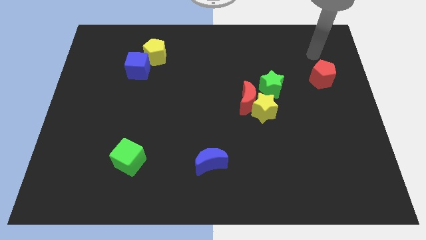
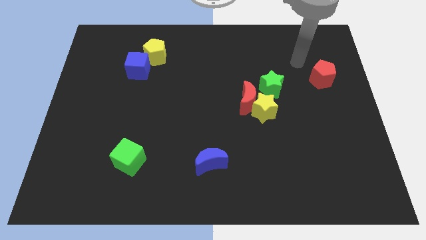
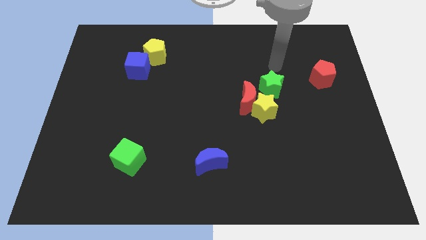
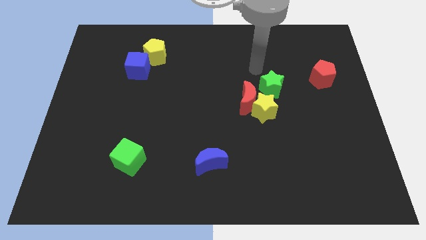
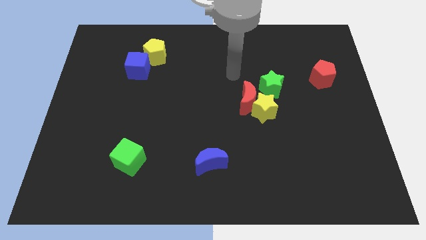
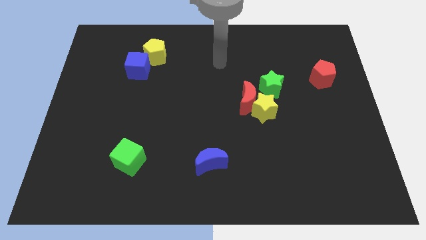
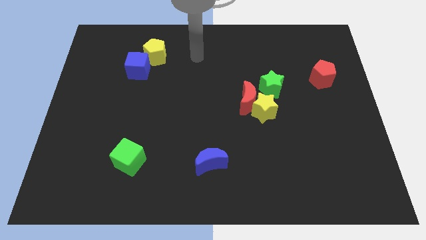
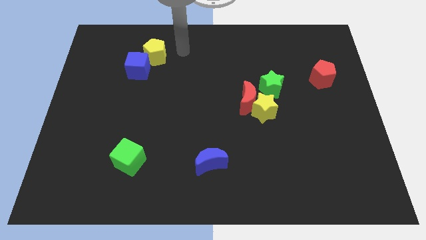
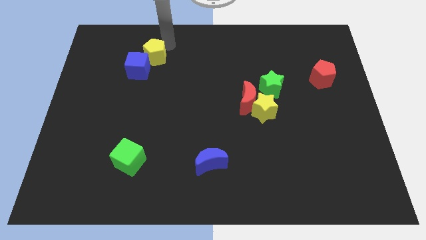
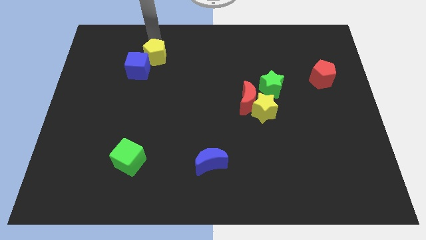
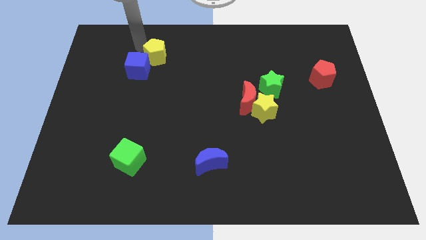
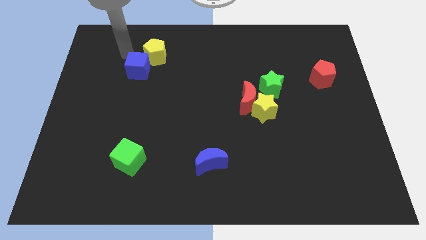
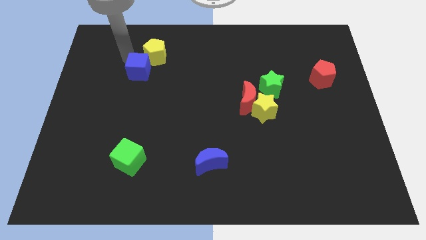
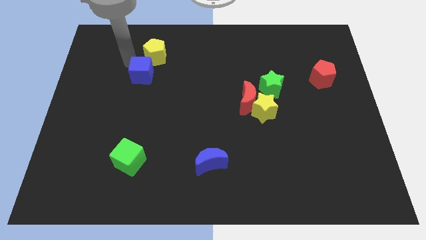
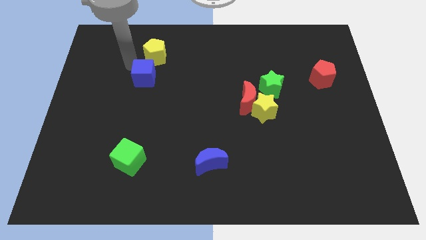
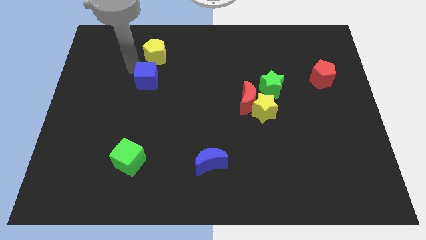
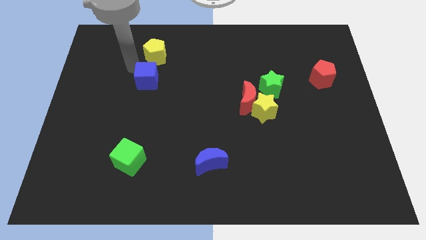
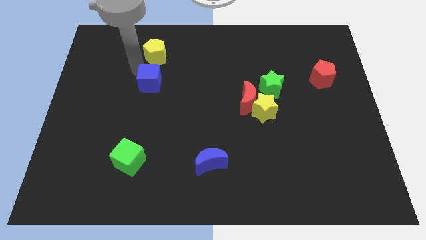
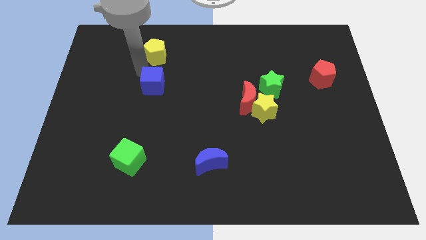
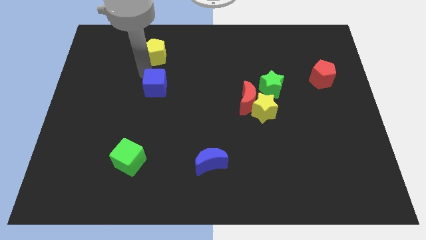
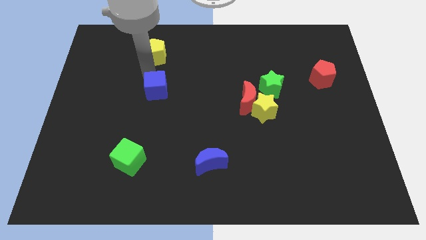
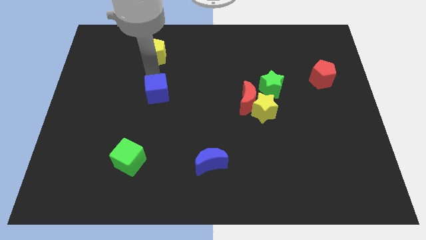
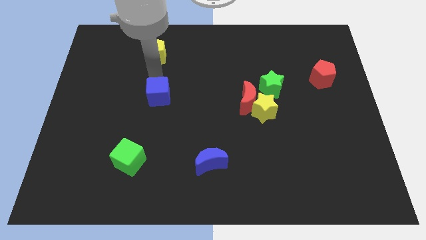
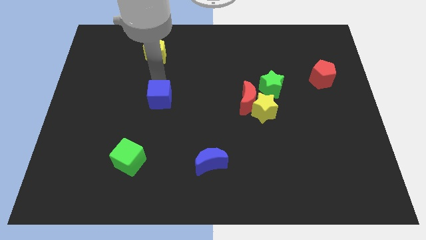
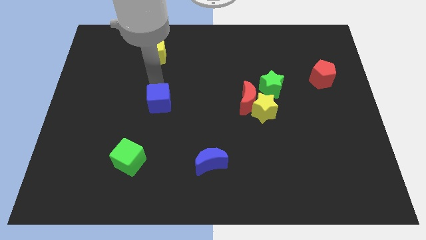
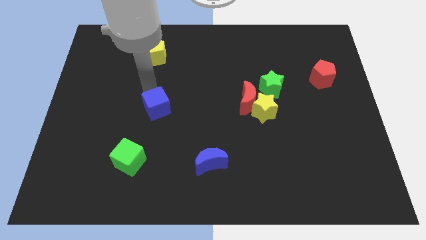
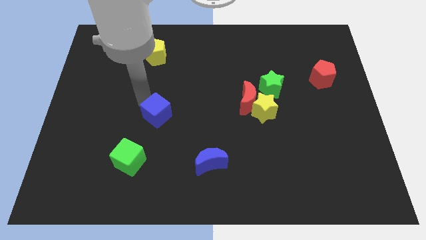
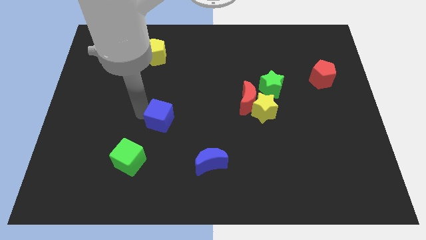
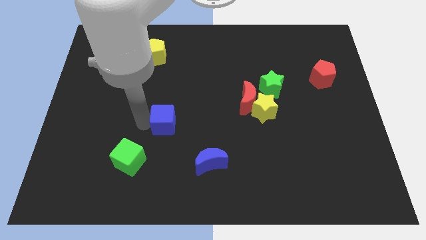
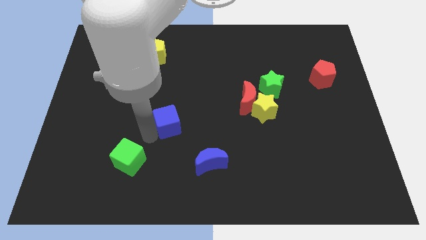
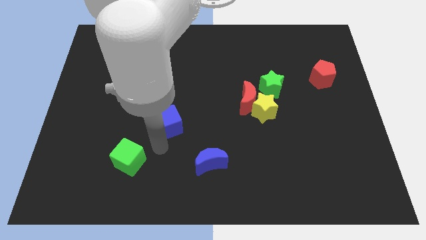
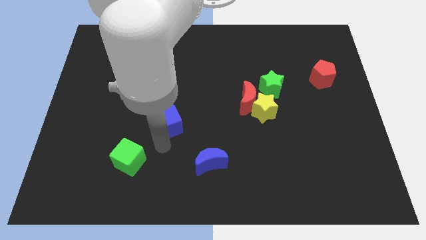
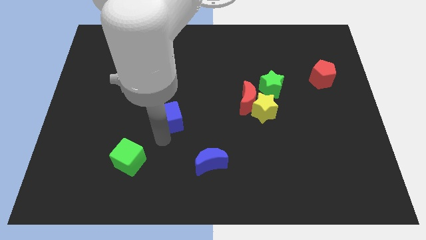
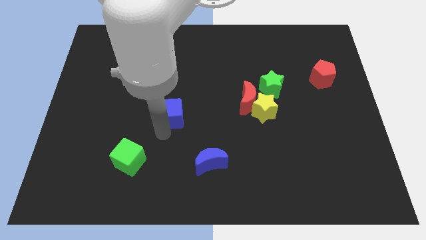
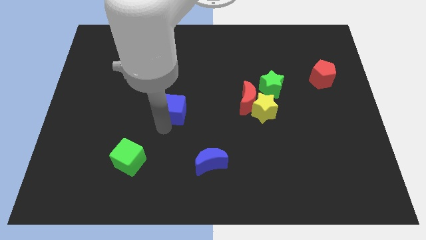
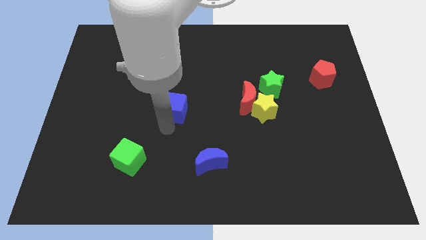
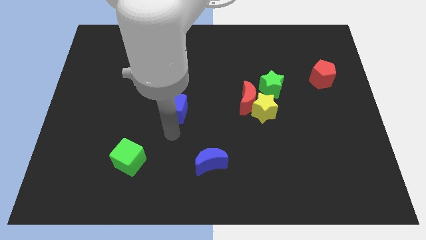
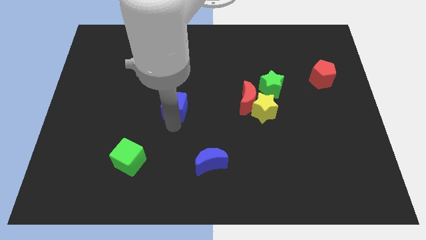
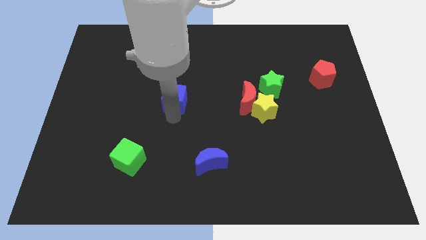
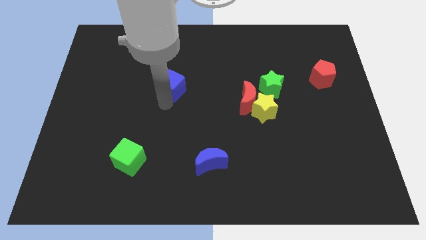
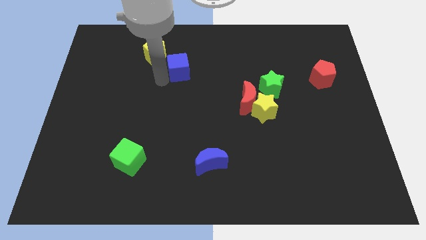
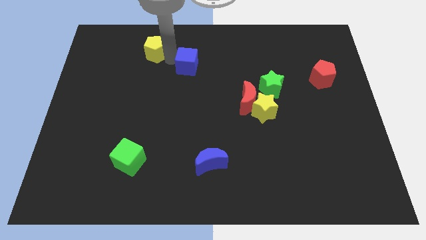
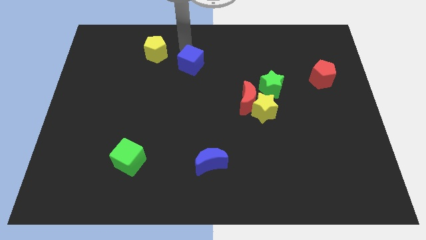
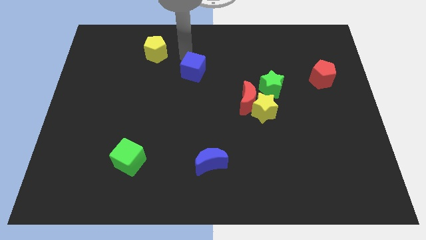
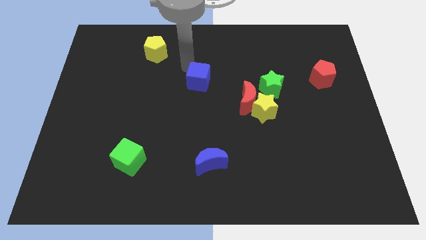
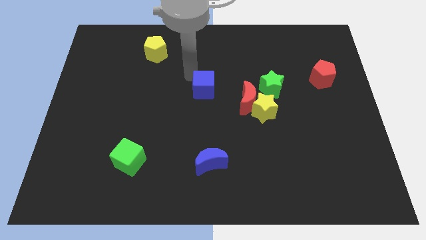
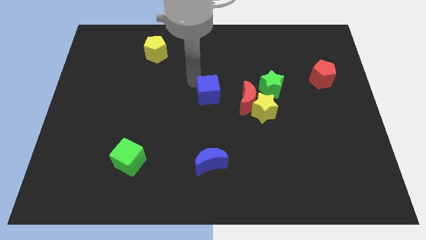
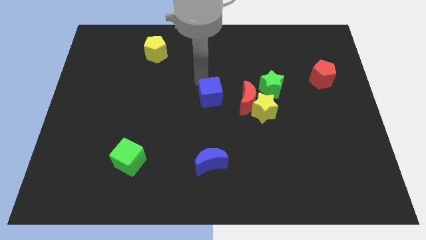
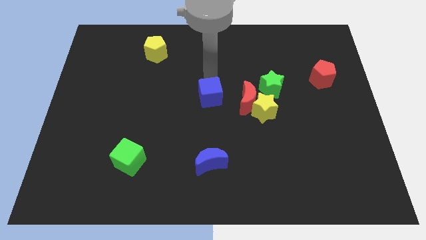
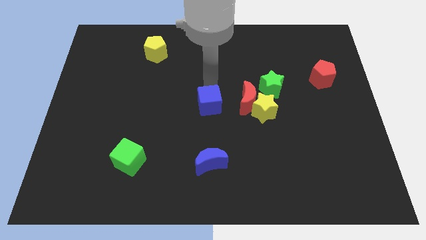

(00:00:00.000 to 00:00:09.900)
slide the blue cube to the top of the blue moon

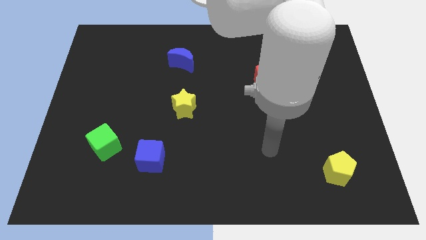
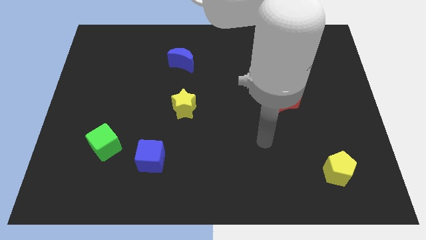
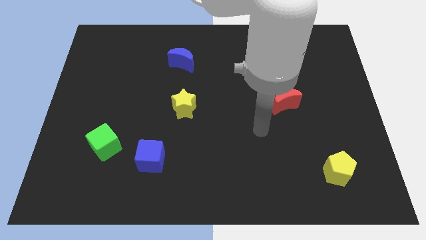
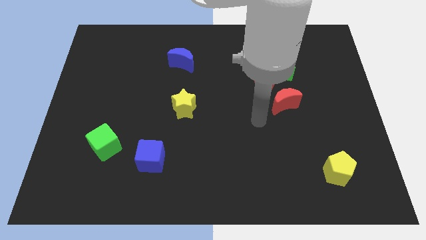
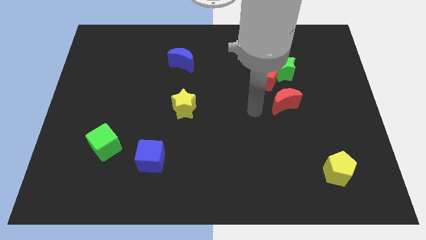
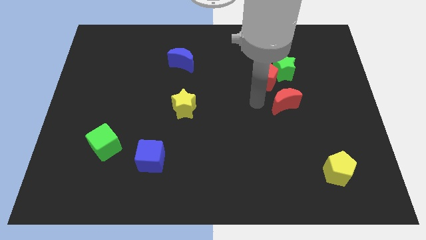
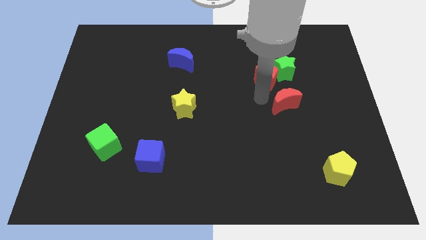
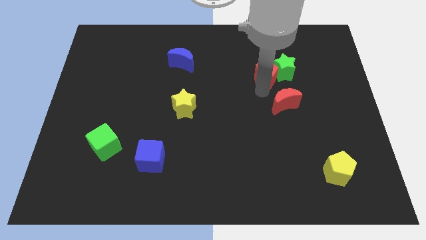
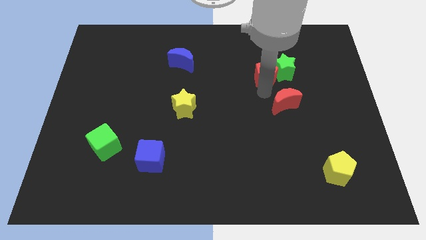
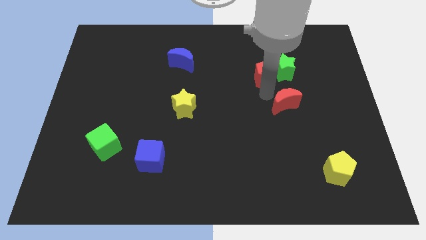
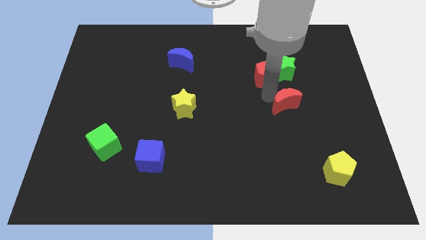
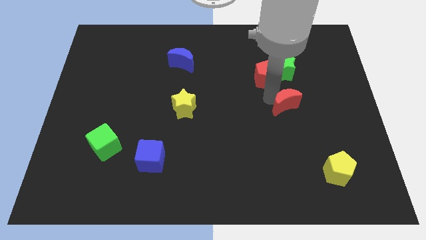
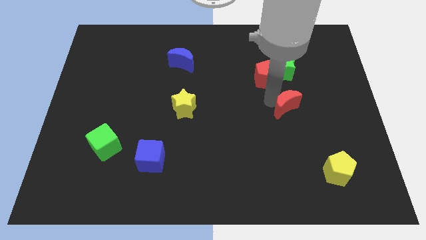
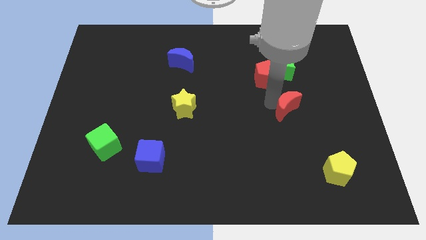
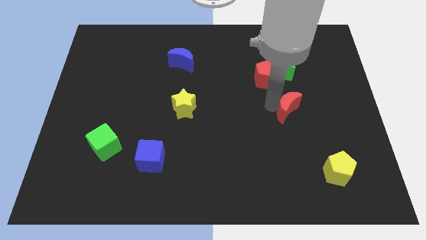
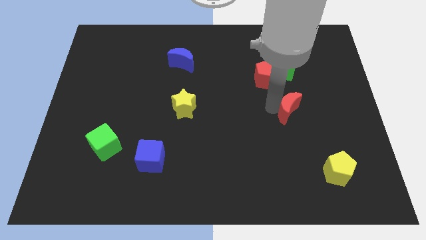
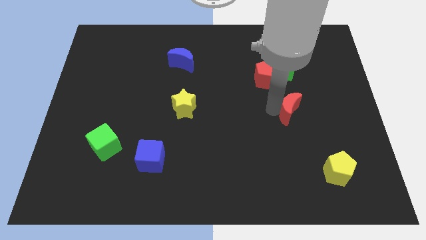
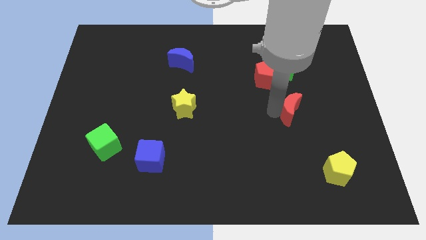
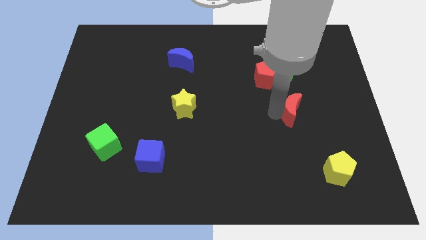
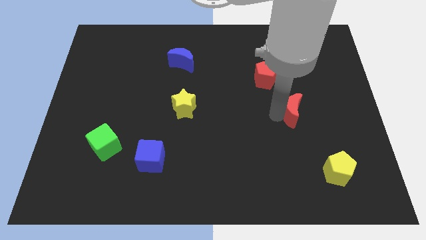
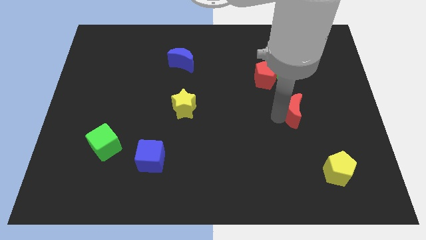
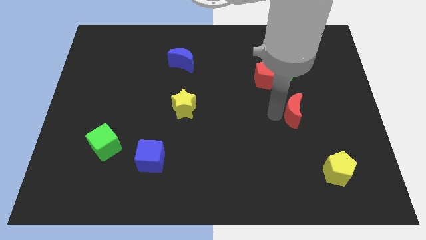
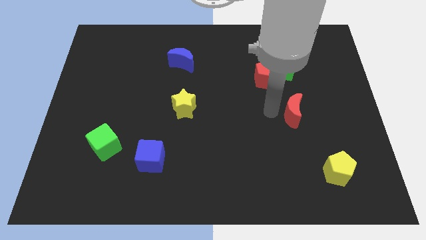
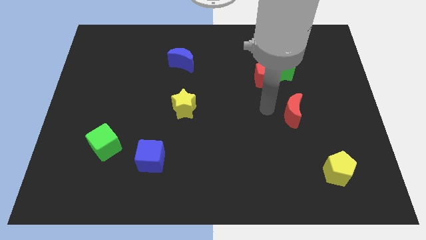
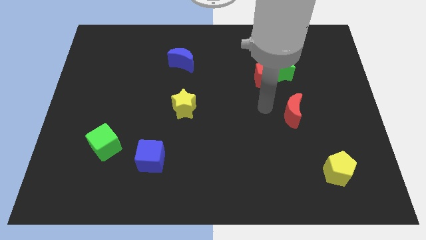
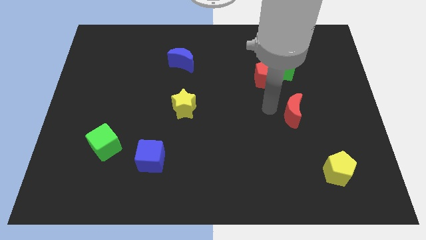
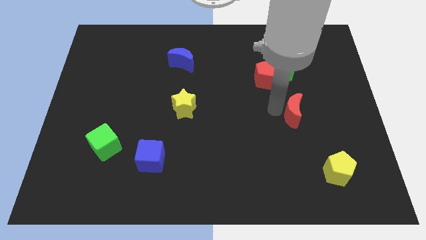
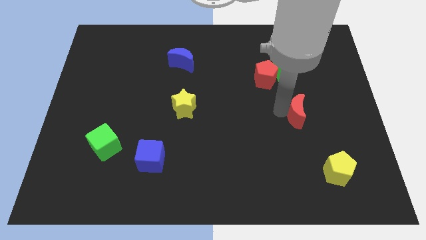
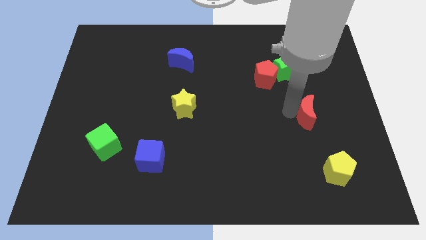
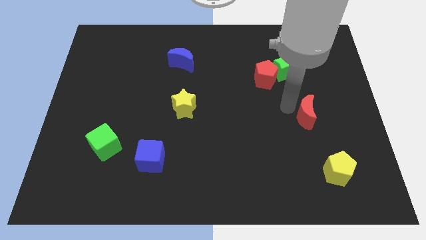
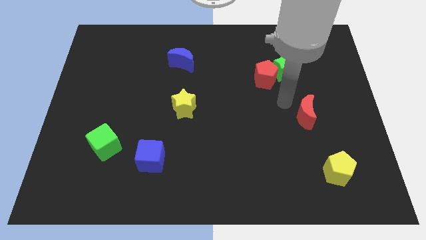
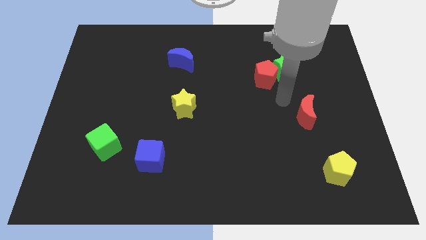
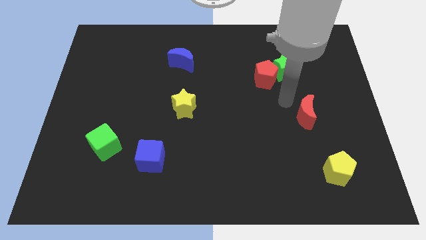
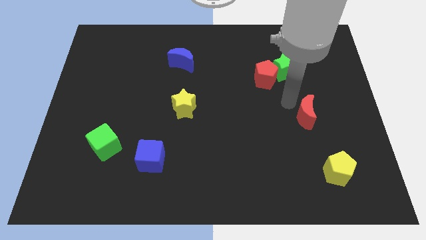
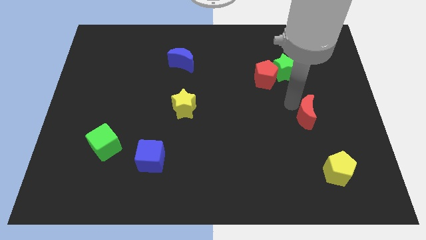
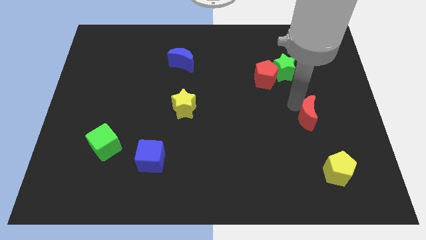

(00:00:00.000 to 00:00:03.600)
push the red moon above the yellow pentagon
